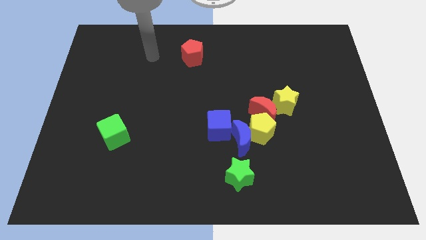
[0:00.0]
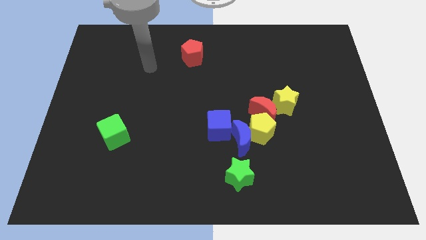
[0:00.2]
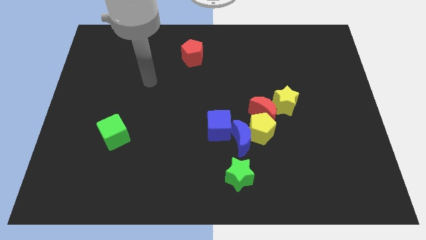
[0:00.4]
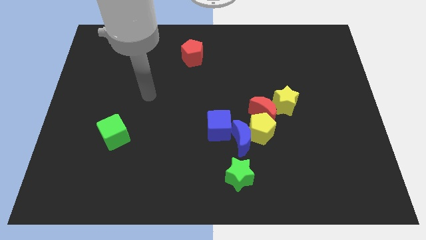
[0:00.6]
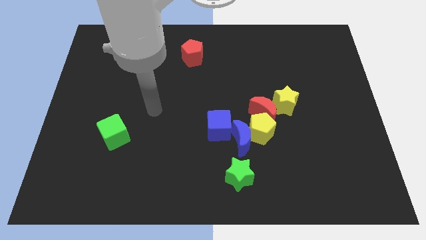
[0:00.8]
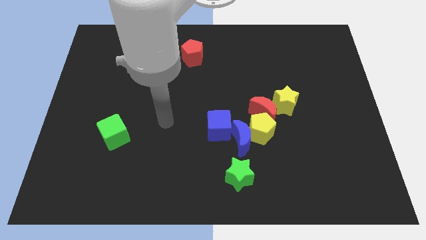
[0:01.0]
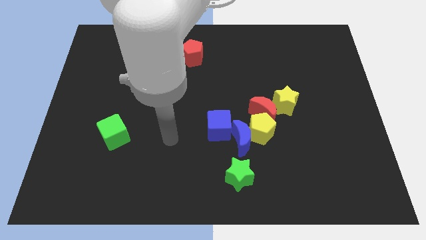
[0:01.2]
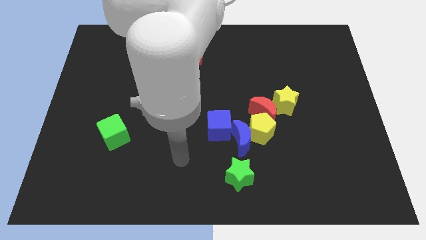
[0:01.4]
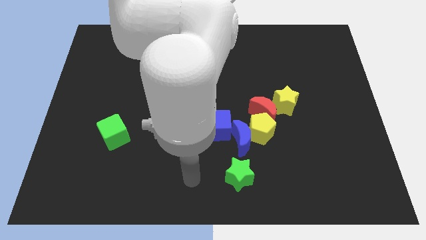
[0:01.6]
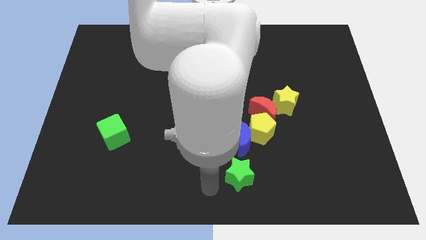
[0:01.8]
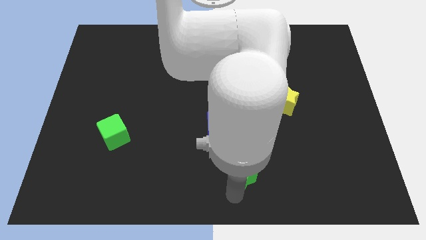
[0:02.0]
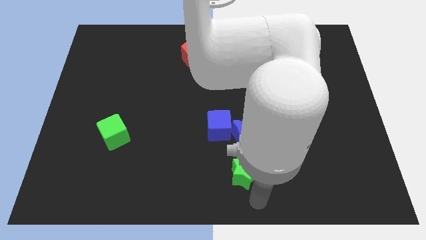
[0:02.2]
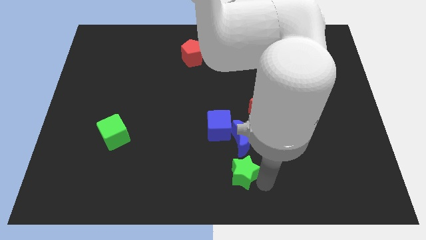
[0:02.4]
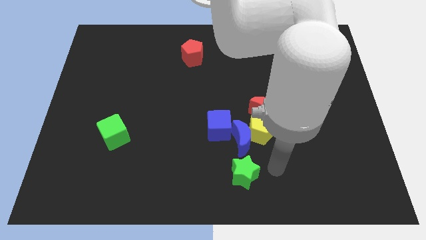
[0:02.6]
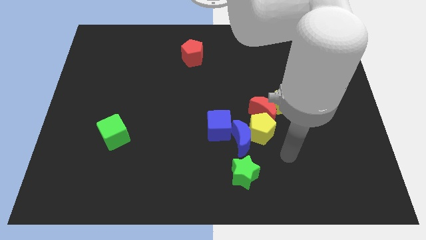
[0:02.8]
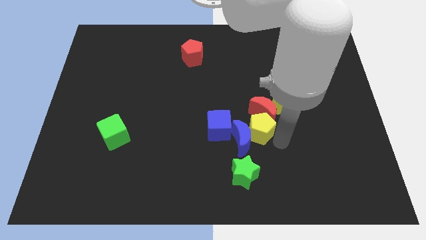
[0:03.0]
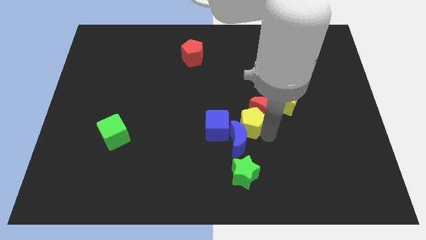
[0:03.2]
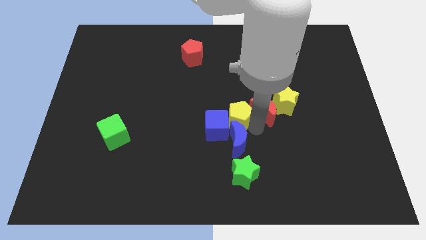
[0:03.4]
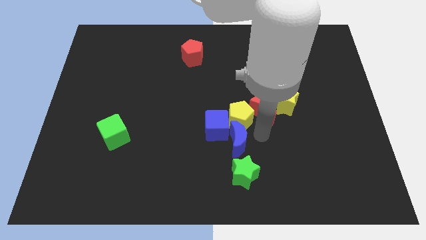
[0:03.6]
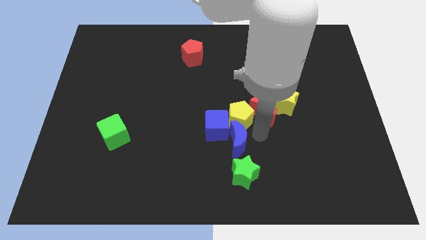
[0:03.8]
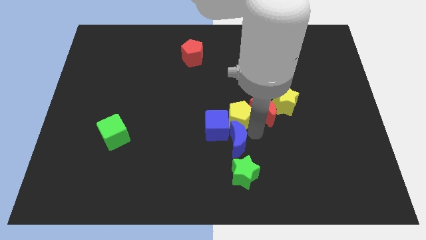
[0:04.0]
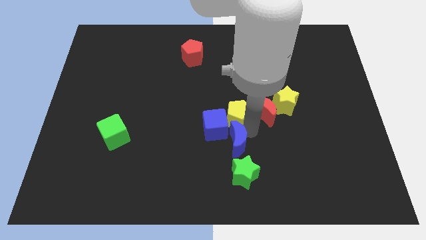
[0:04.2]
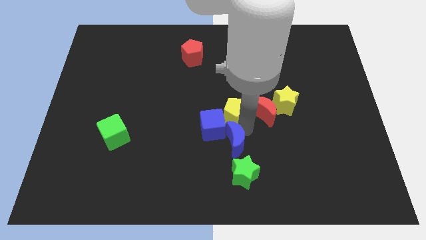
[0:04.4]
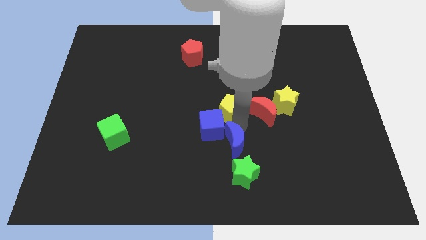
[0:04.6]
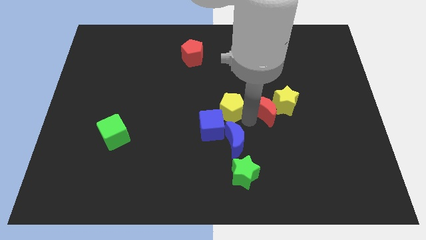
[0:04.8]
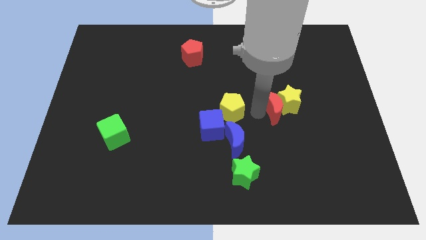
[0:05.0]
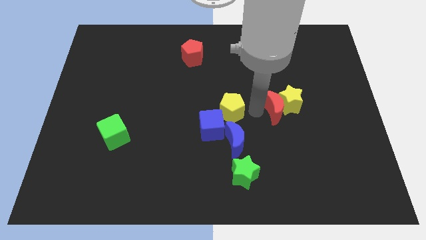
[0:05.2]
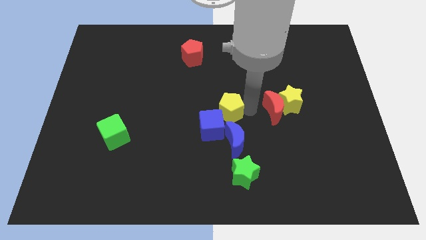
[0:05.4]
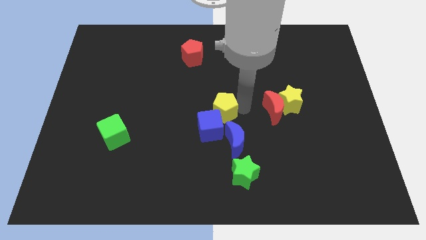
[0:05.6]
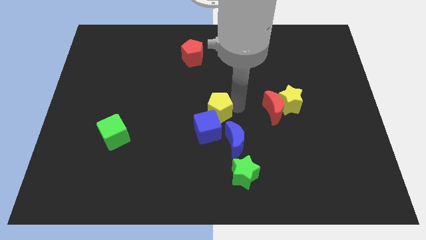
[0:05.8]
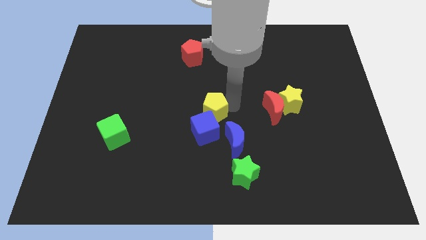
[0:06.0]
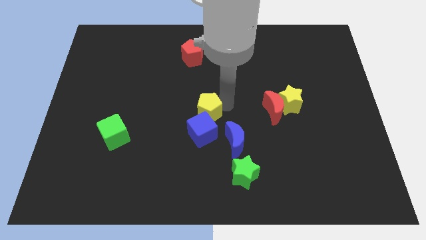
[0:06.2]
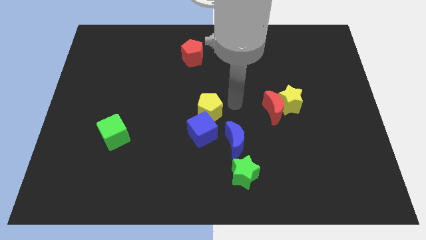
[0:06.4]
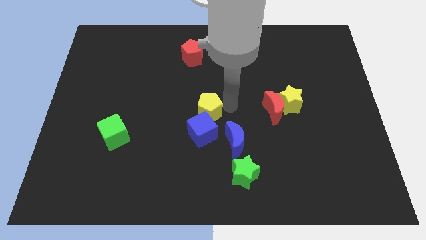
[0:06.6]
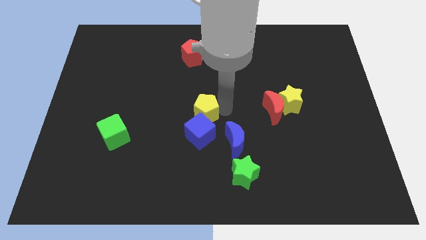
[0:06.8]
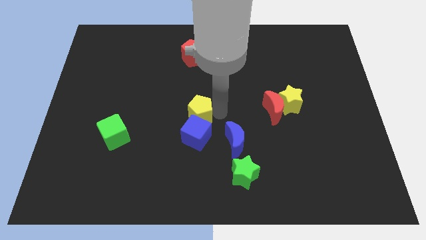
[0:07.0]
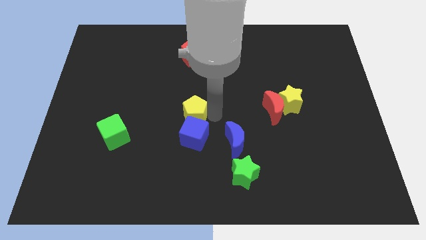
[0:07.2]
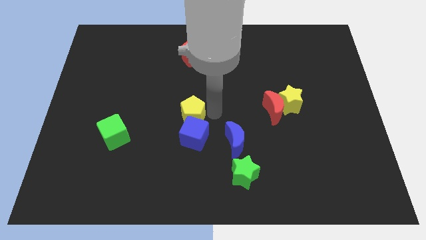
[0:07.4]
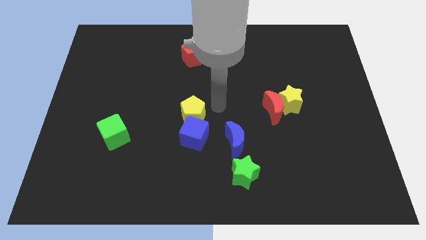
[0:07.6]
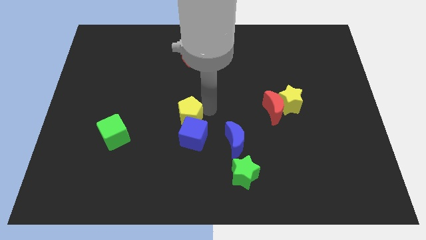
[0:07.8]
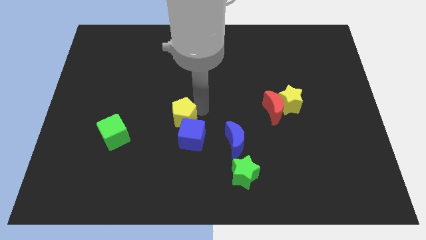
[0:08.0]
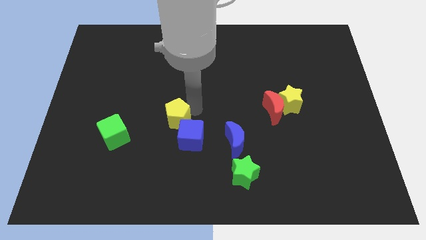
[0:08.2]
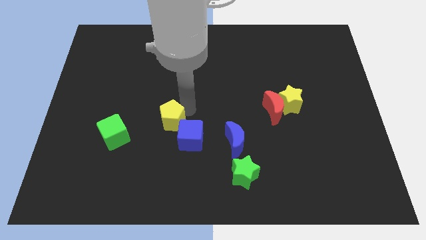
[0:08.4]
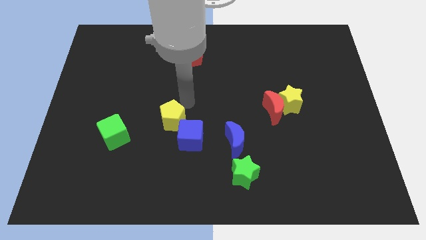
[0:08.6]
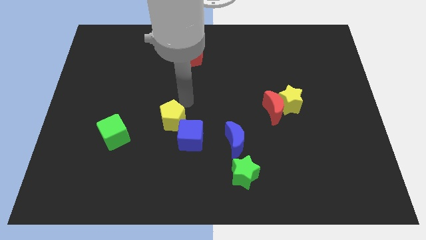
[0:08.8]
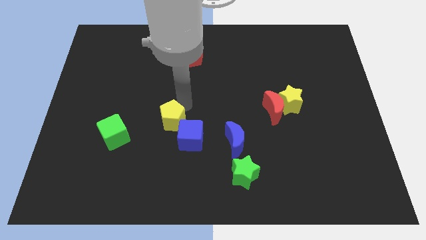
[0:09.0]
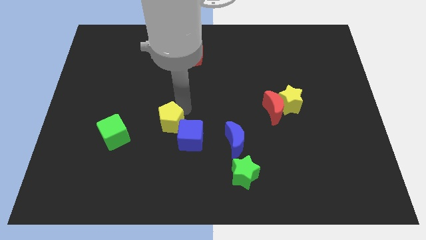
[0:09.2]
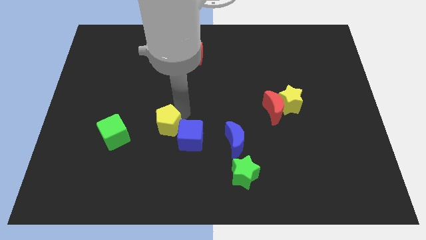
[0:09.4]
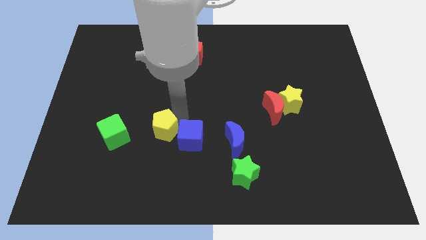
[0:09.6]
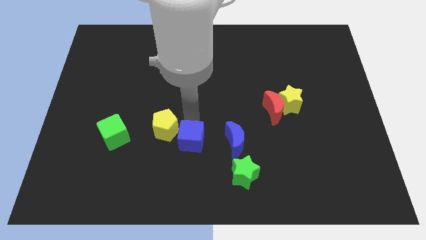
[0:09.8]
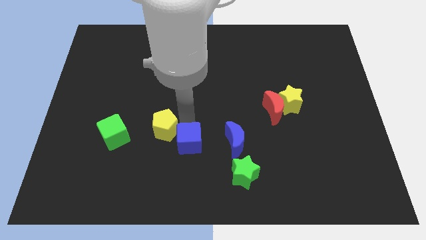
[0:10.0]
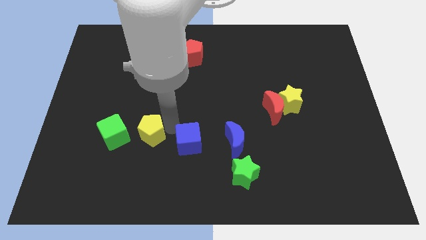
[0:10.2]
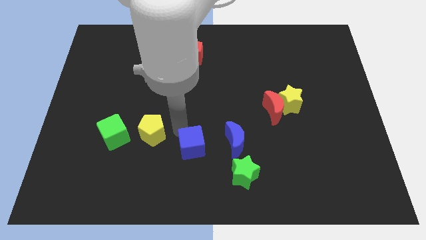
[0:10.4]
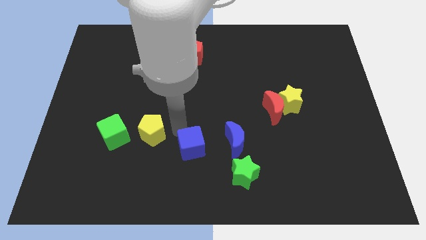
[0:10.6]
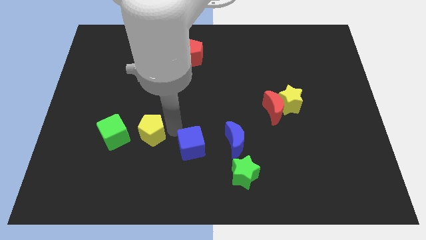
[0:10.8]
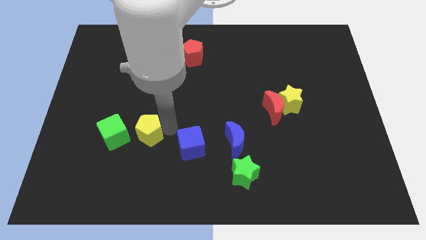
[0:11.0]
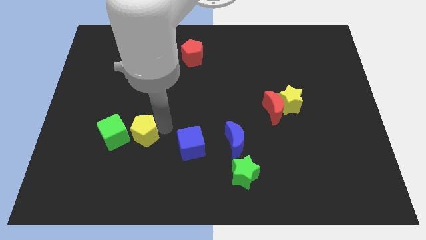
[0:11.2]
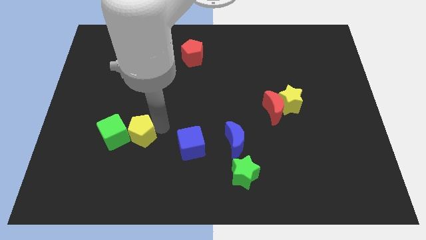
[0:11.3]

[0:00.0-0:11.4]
move the yellow pentagon close to the green cube

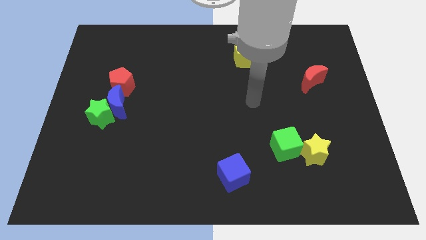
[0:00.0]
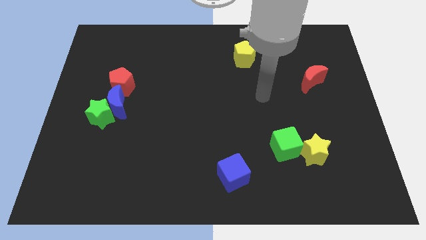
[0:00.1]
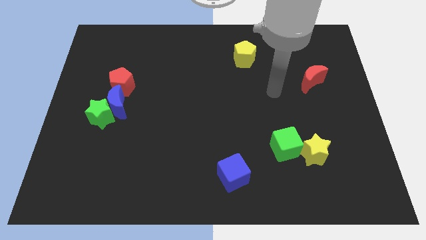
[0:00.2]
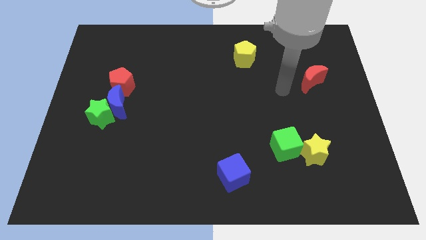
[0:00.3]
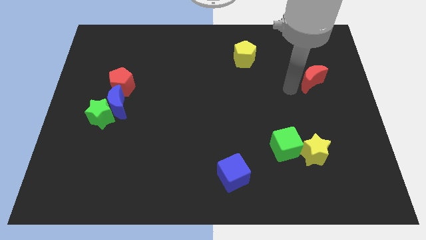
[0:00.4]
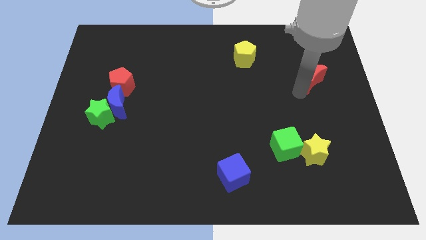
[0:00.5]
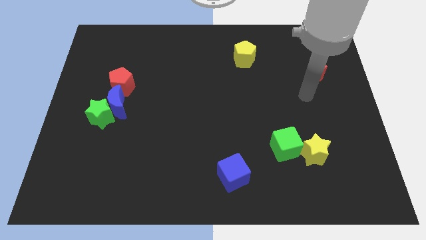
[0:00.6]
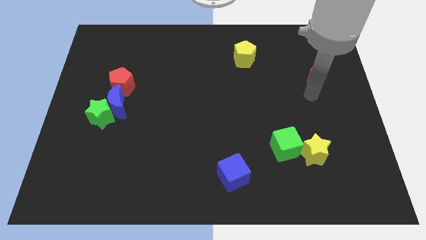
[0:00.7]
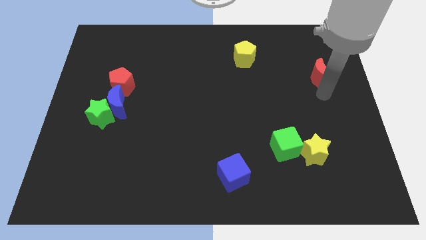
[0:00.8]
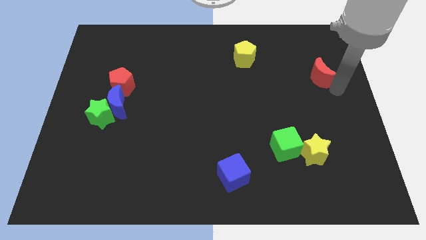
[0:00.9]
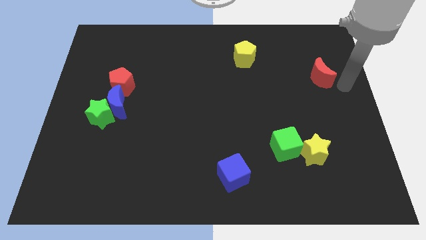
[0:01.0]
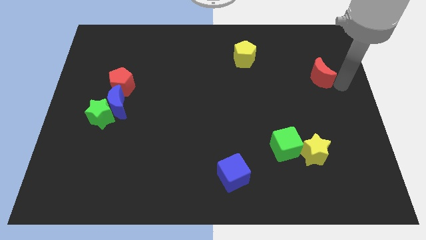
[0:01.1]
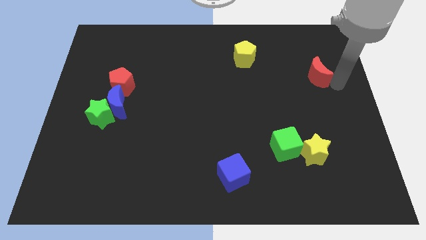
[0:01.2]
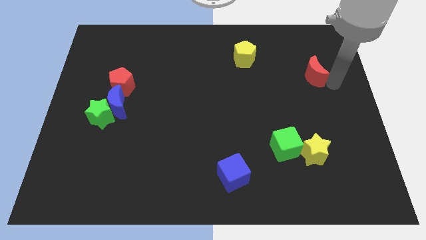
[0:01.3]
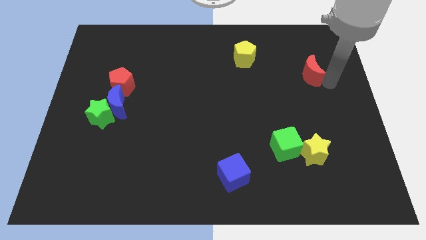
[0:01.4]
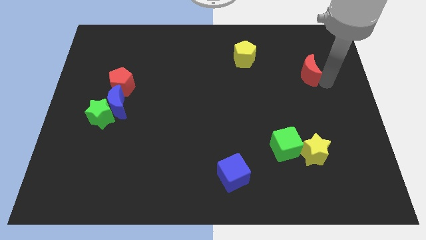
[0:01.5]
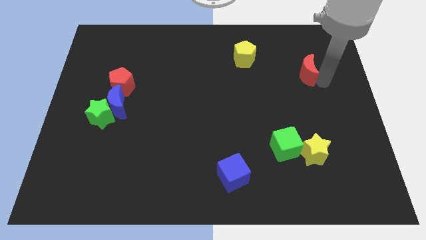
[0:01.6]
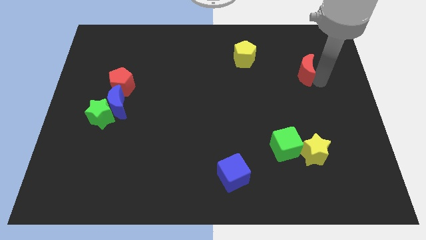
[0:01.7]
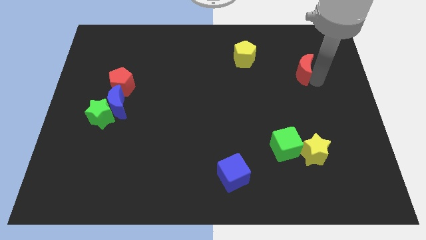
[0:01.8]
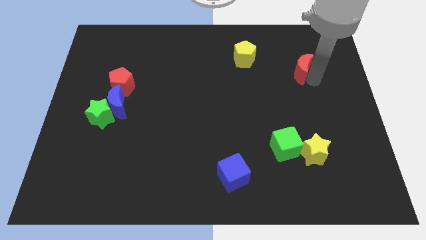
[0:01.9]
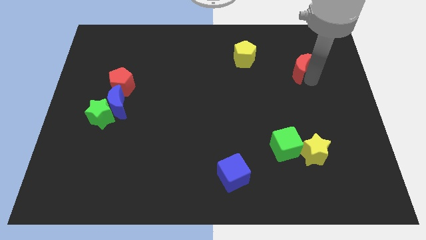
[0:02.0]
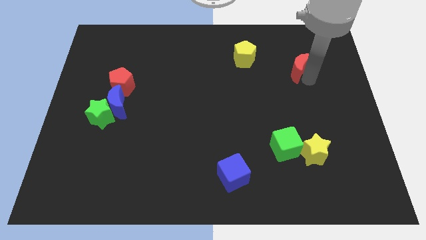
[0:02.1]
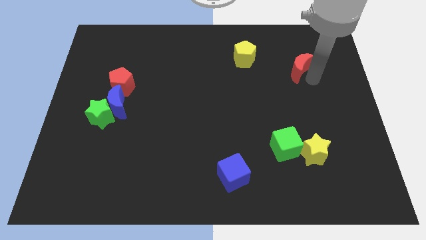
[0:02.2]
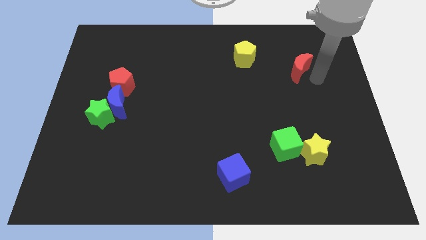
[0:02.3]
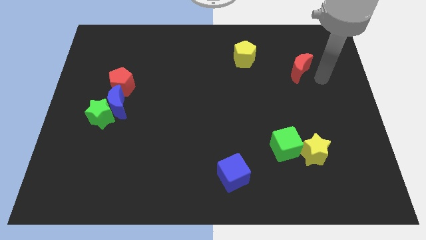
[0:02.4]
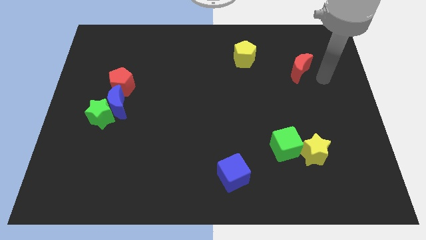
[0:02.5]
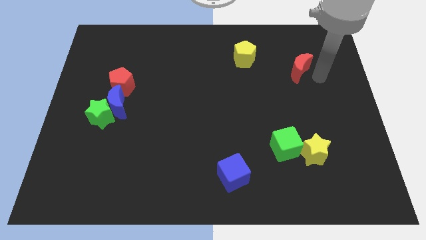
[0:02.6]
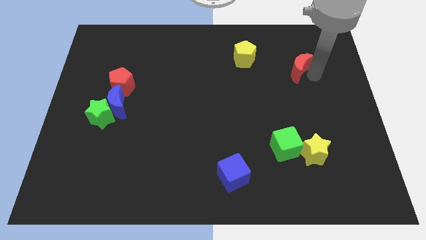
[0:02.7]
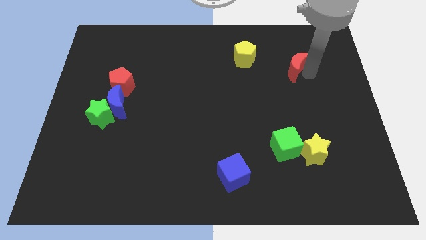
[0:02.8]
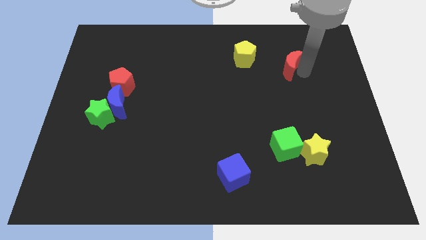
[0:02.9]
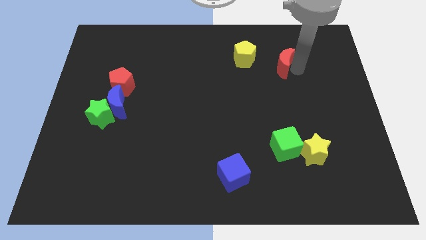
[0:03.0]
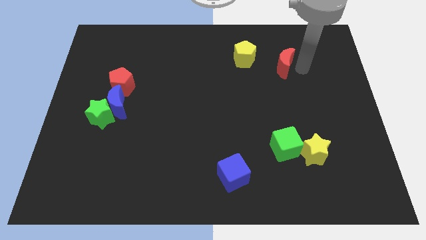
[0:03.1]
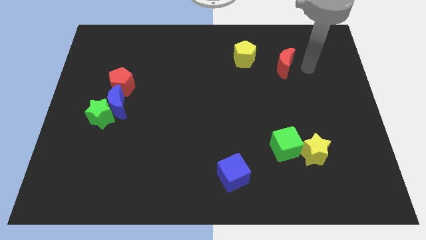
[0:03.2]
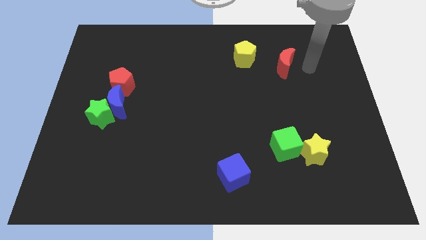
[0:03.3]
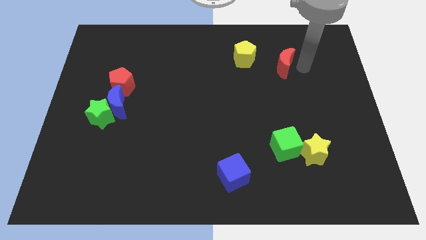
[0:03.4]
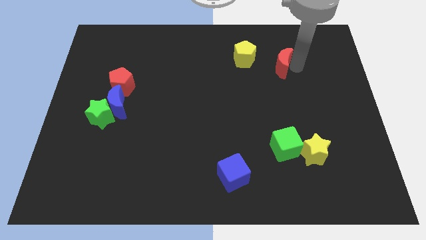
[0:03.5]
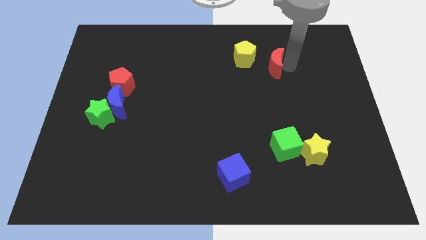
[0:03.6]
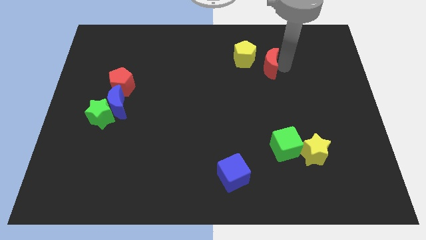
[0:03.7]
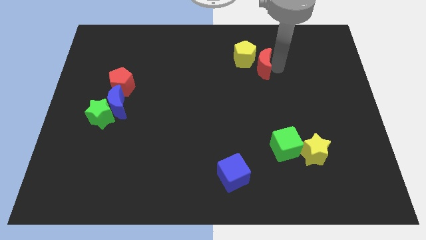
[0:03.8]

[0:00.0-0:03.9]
move the red moon next to the yellow pentagon
